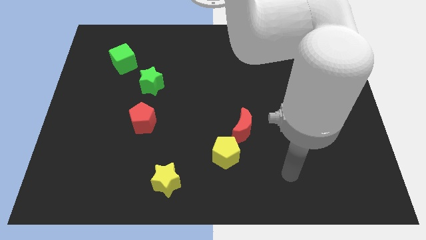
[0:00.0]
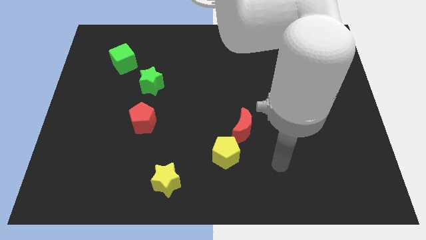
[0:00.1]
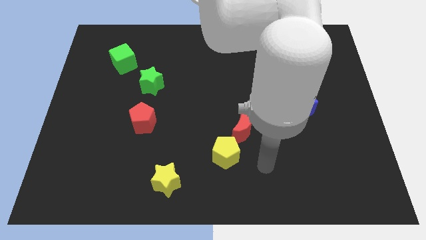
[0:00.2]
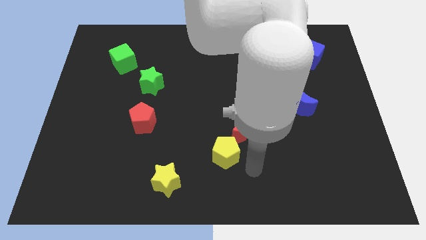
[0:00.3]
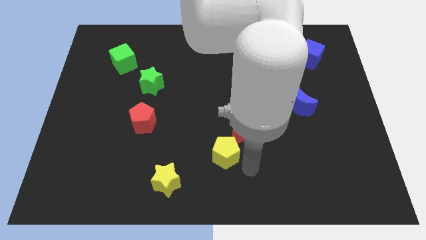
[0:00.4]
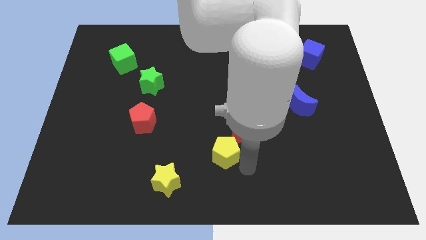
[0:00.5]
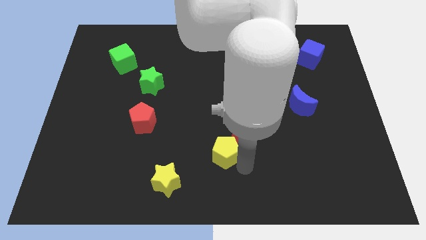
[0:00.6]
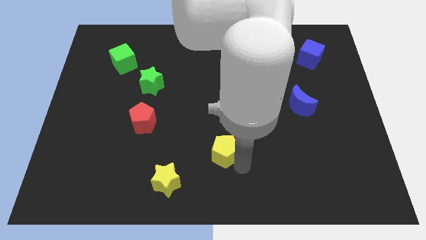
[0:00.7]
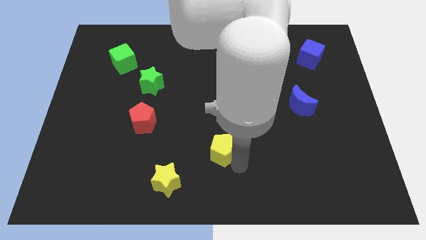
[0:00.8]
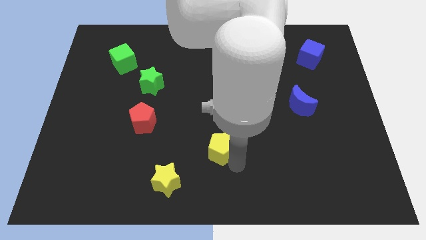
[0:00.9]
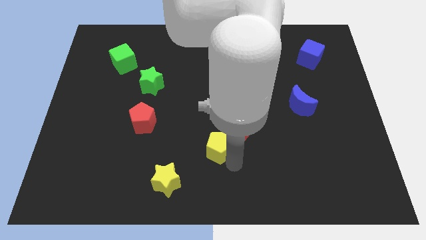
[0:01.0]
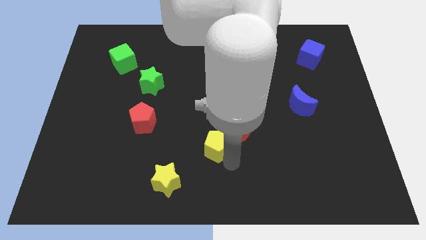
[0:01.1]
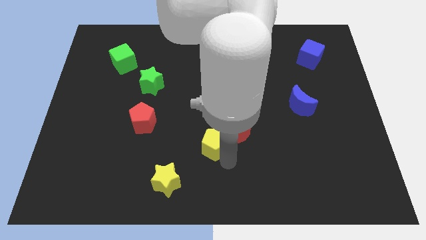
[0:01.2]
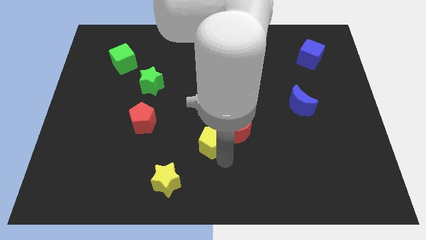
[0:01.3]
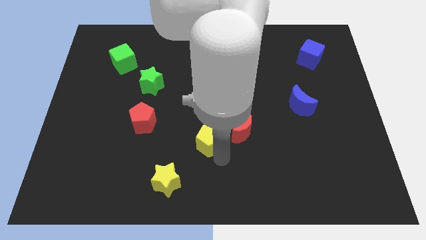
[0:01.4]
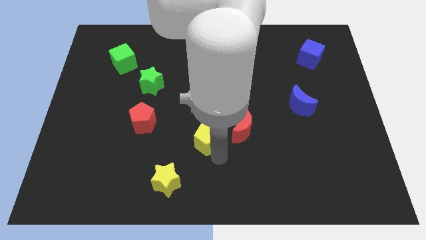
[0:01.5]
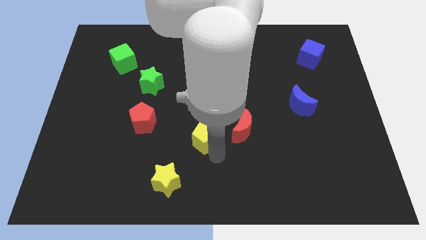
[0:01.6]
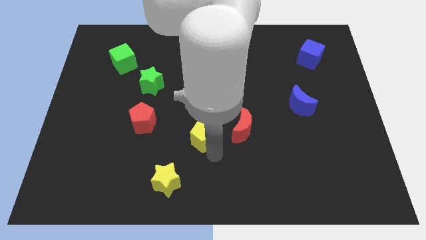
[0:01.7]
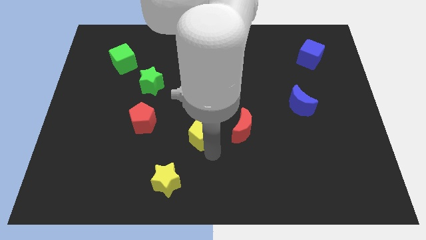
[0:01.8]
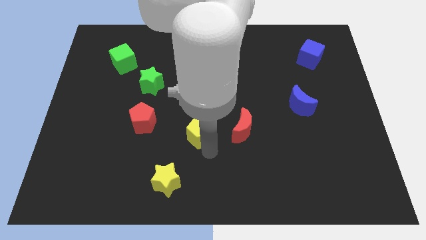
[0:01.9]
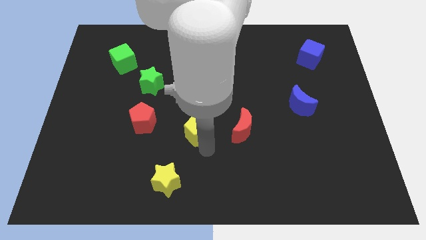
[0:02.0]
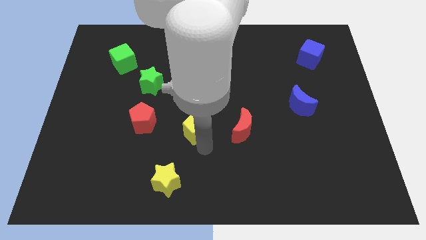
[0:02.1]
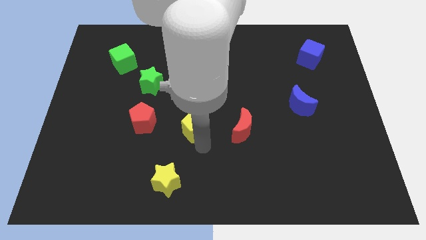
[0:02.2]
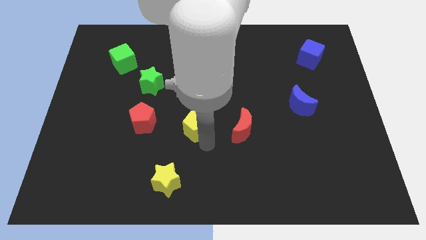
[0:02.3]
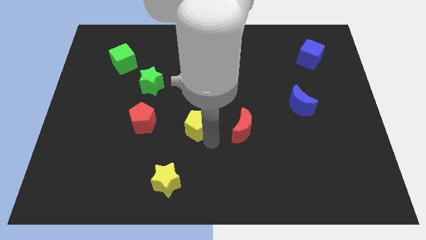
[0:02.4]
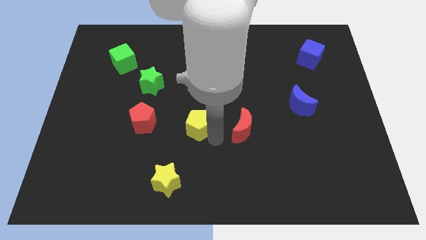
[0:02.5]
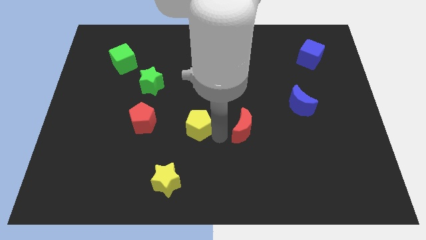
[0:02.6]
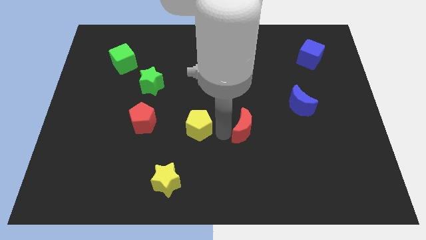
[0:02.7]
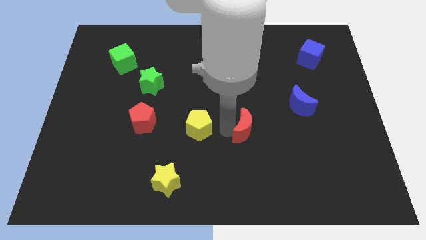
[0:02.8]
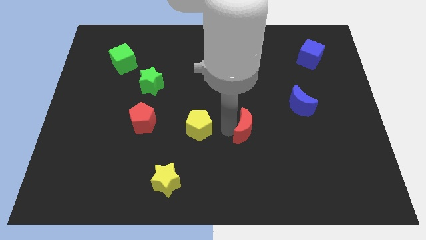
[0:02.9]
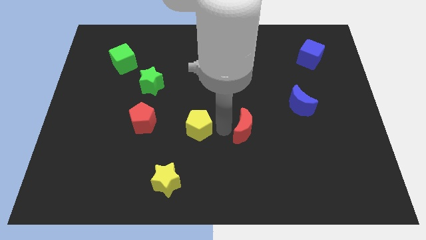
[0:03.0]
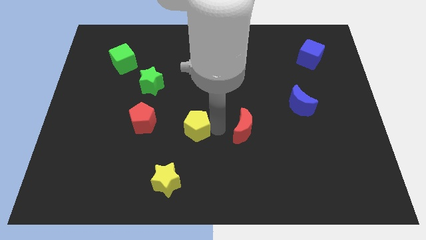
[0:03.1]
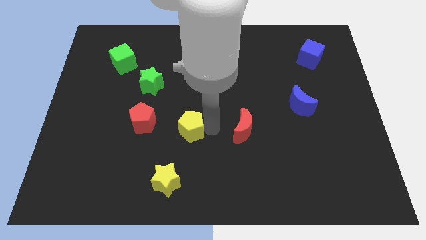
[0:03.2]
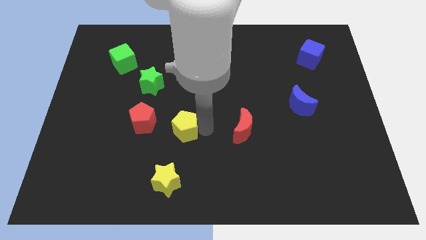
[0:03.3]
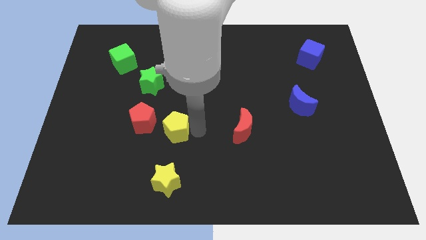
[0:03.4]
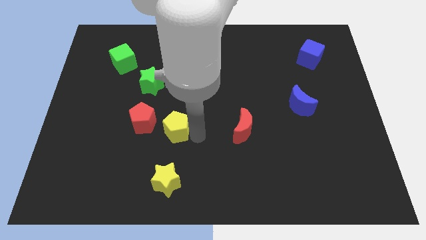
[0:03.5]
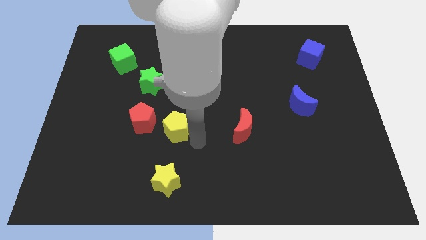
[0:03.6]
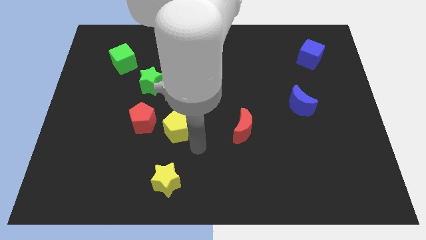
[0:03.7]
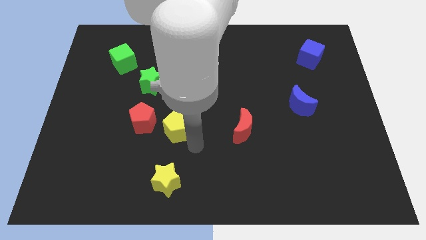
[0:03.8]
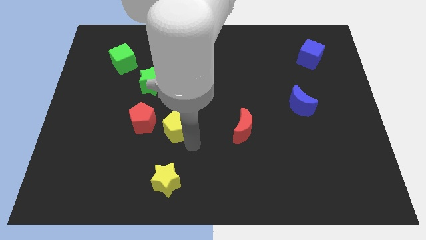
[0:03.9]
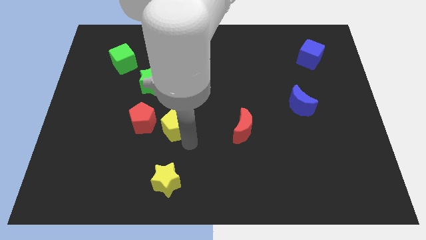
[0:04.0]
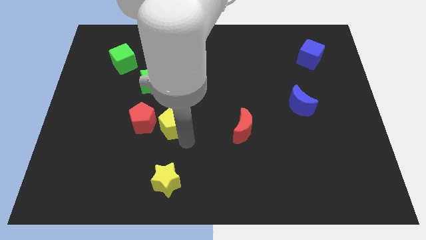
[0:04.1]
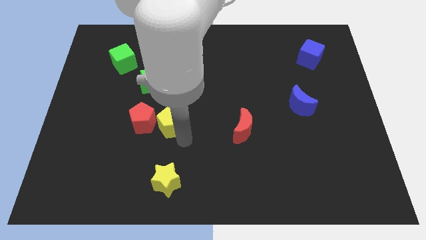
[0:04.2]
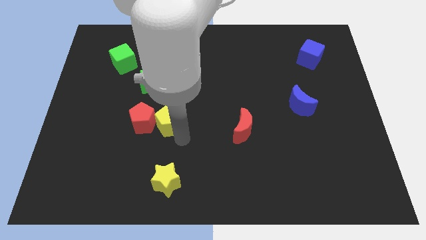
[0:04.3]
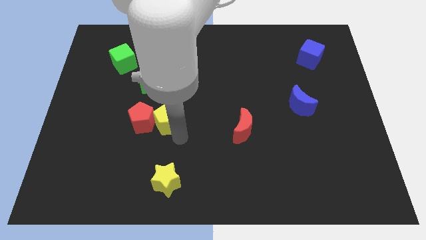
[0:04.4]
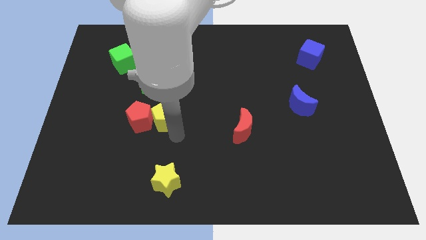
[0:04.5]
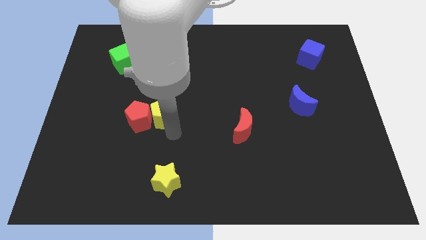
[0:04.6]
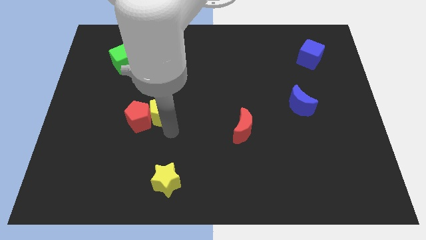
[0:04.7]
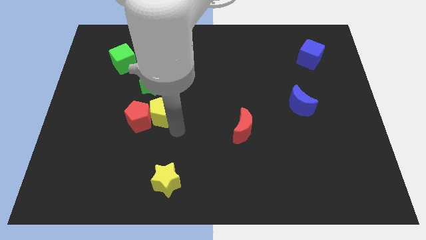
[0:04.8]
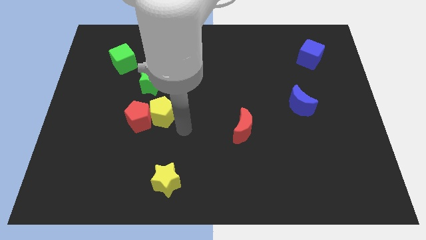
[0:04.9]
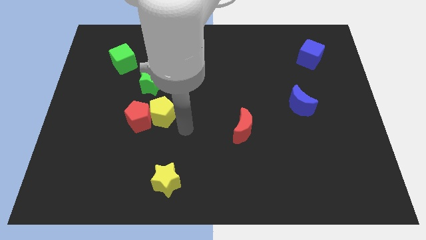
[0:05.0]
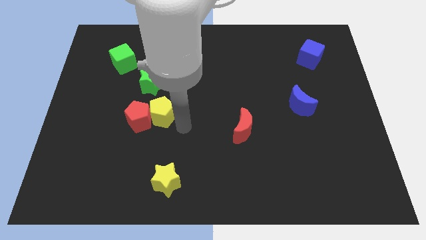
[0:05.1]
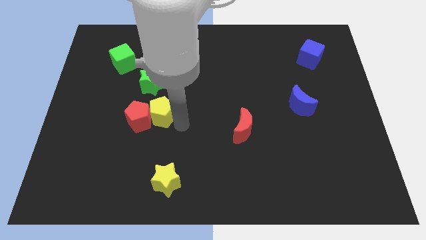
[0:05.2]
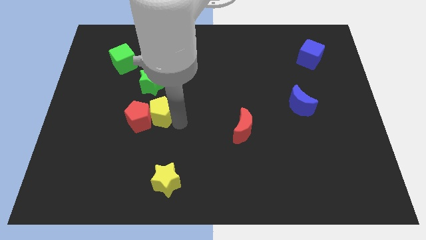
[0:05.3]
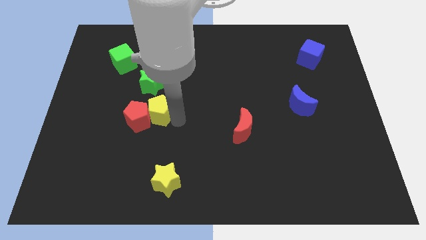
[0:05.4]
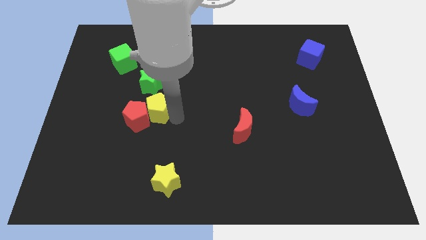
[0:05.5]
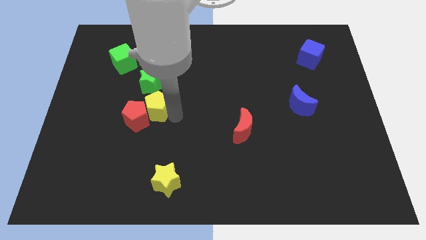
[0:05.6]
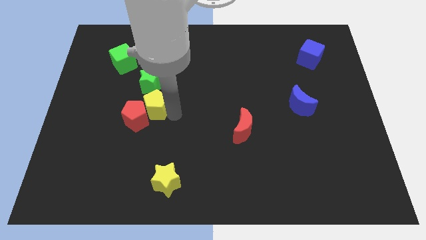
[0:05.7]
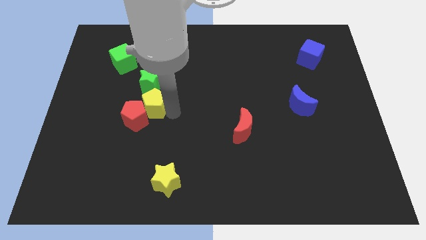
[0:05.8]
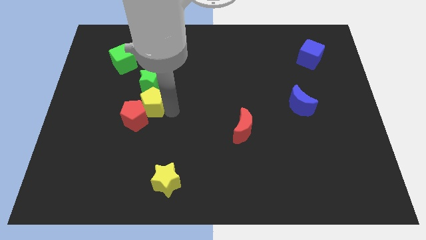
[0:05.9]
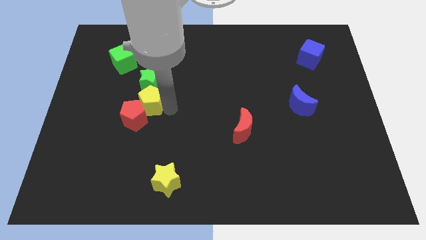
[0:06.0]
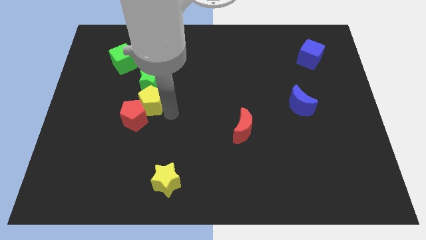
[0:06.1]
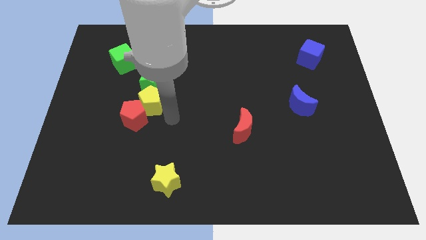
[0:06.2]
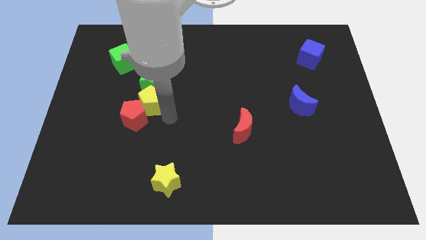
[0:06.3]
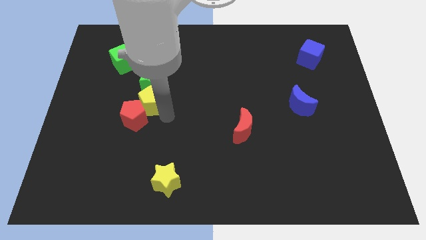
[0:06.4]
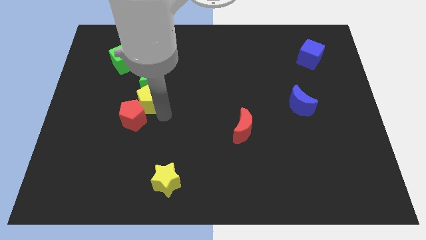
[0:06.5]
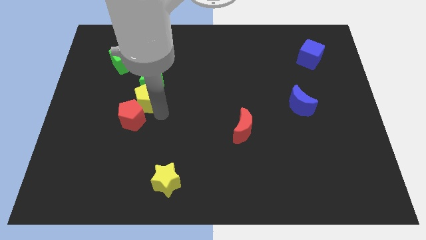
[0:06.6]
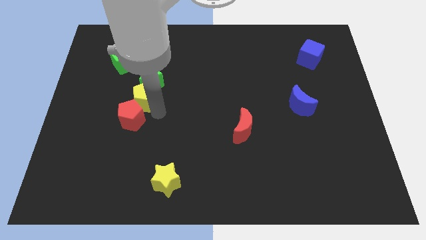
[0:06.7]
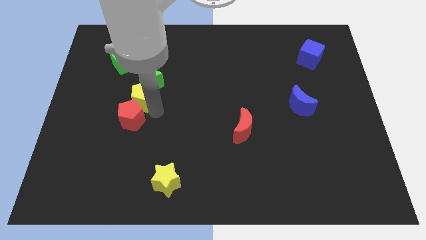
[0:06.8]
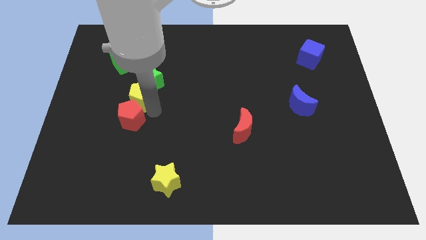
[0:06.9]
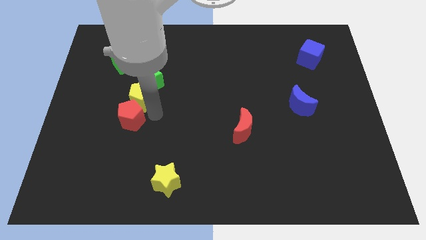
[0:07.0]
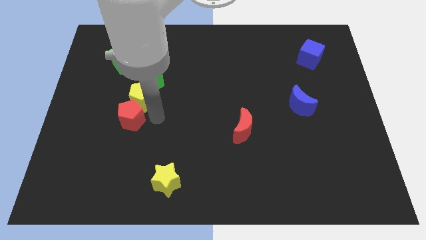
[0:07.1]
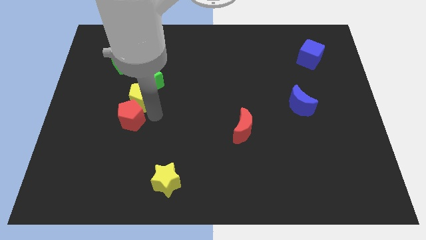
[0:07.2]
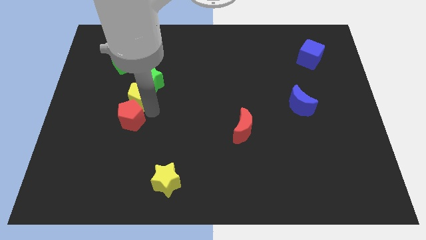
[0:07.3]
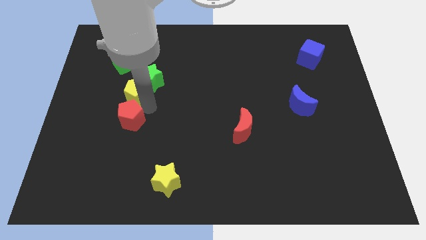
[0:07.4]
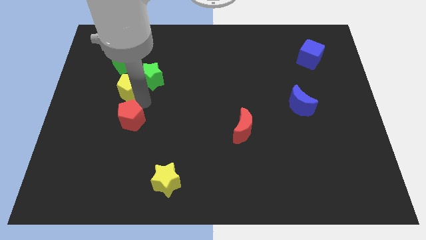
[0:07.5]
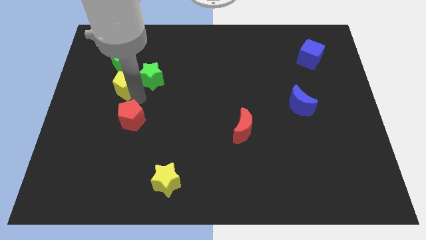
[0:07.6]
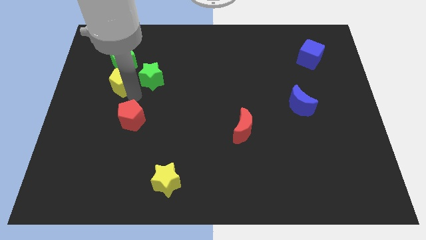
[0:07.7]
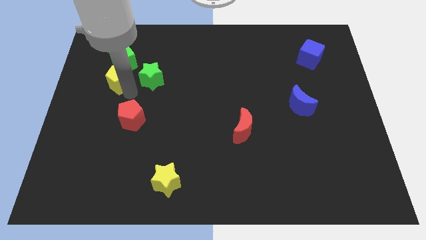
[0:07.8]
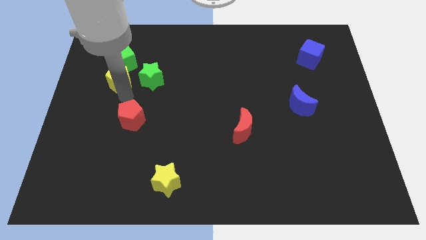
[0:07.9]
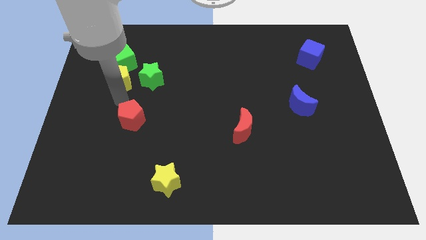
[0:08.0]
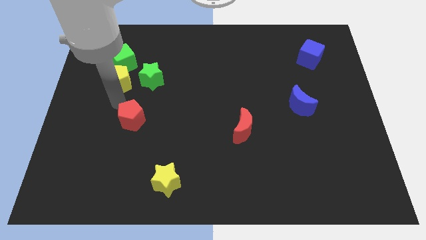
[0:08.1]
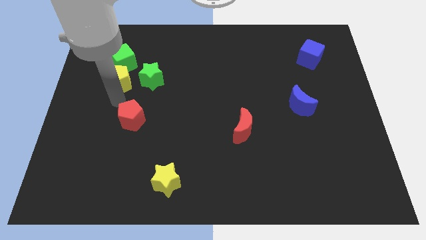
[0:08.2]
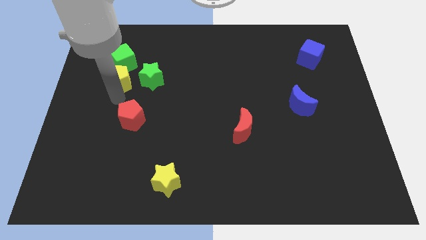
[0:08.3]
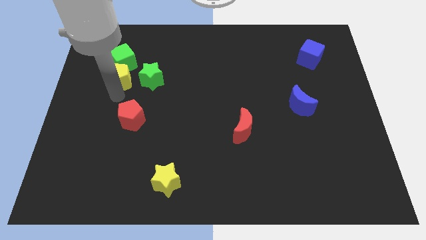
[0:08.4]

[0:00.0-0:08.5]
put the yellow pentagon to the green cube
